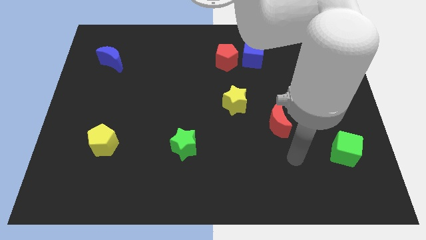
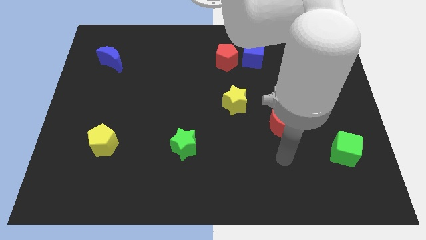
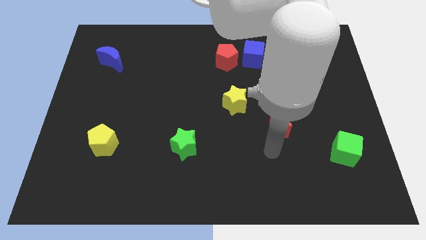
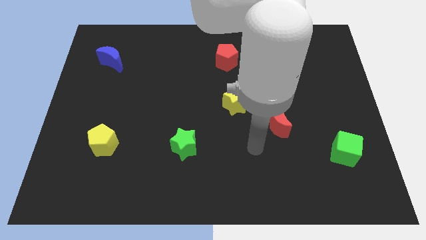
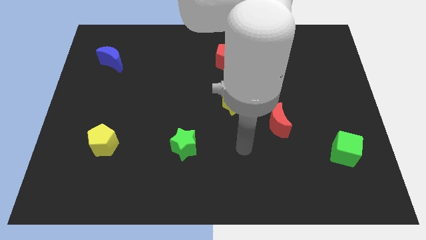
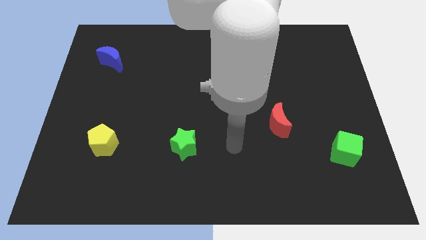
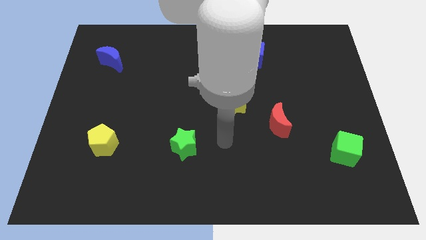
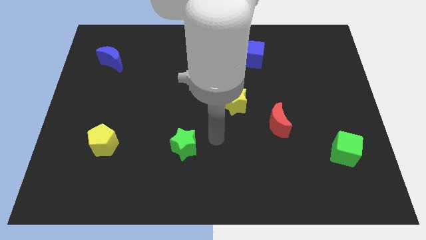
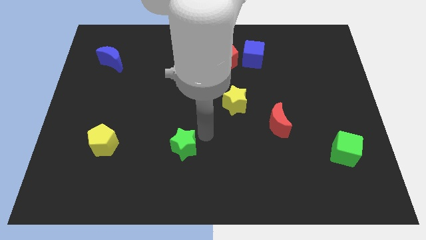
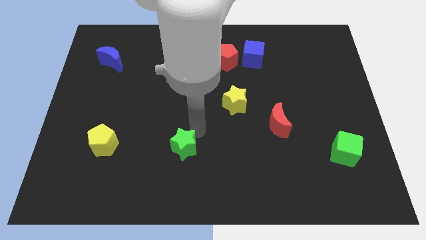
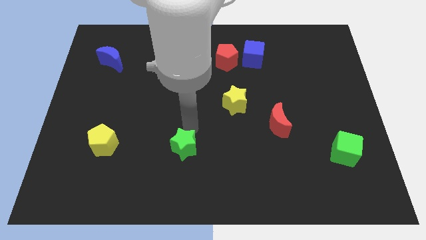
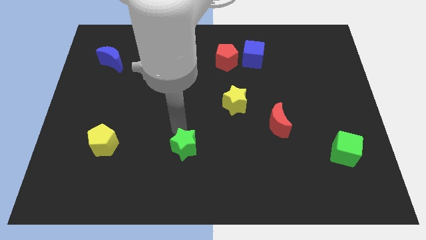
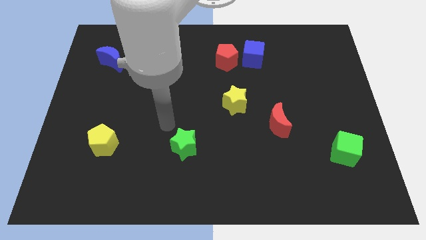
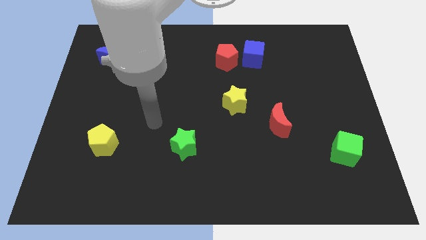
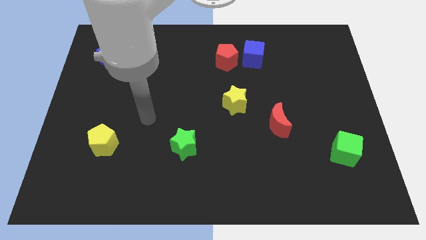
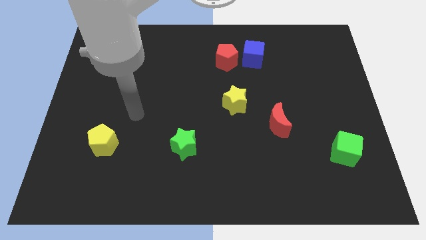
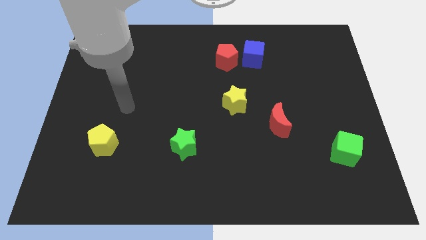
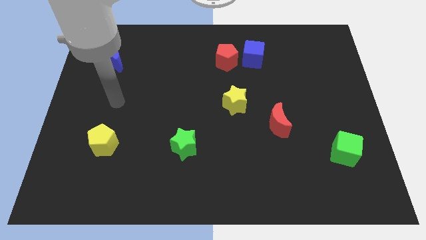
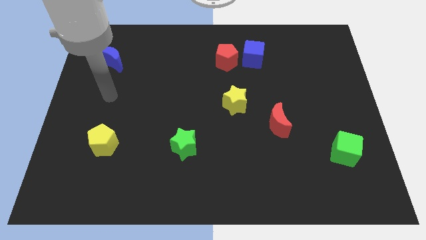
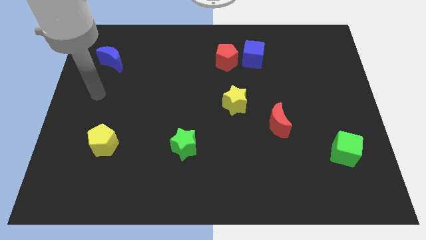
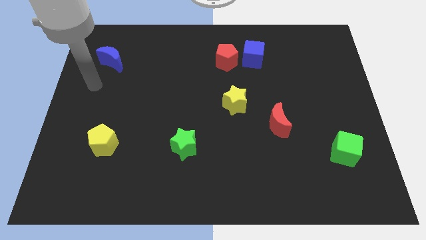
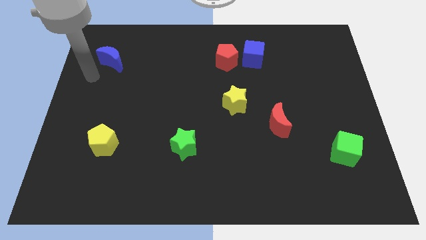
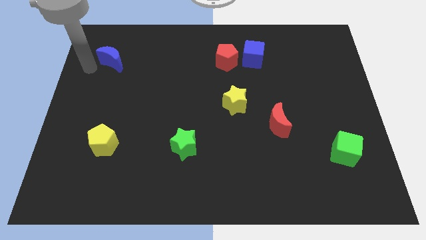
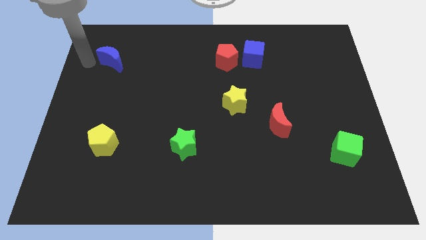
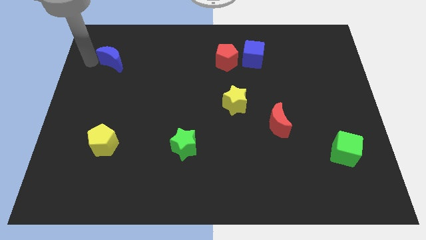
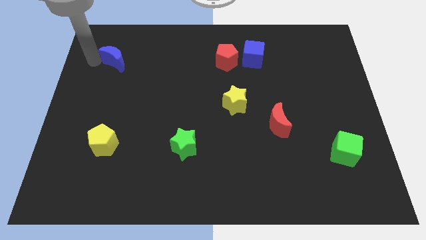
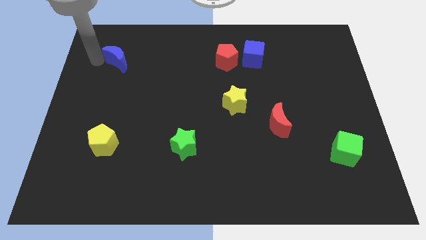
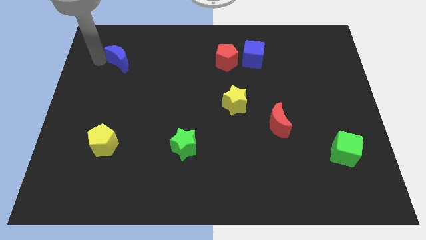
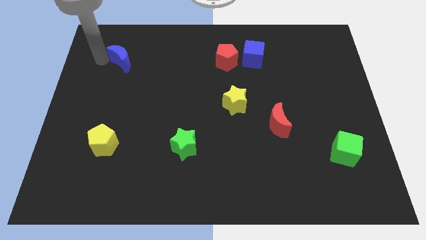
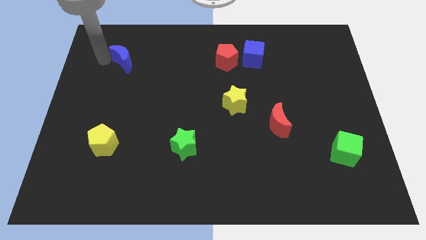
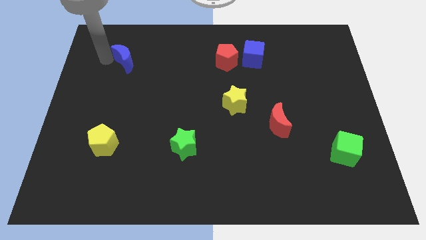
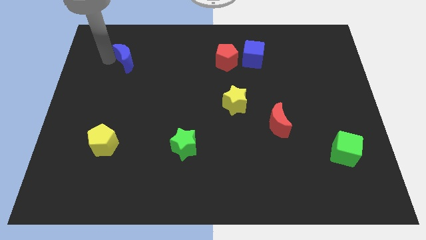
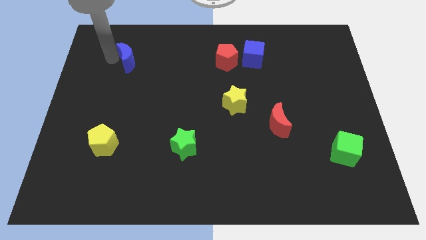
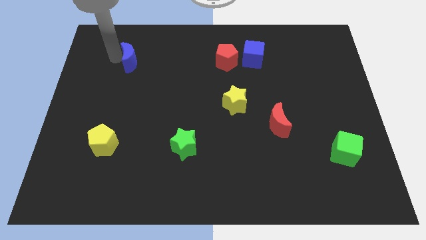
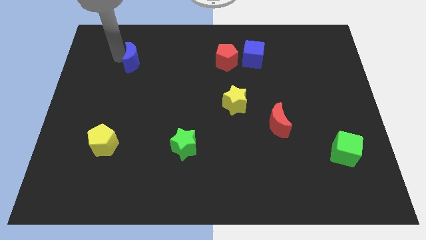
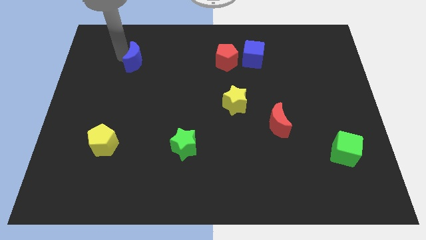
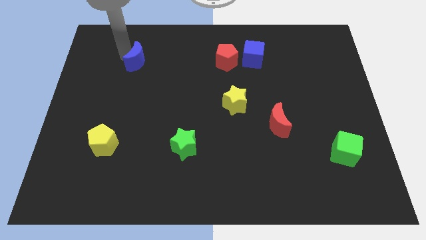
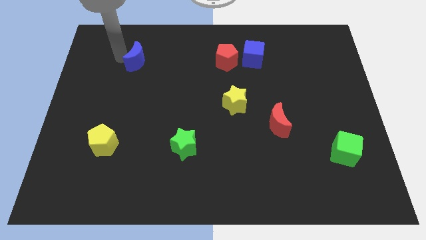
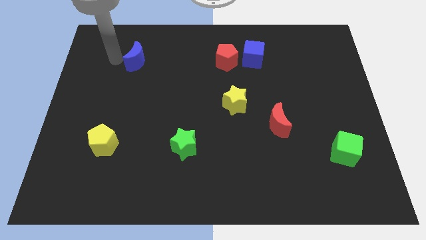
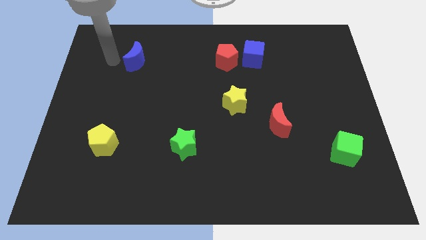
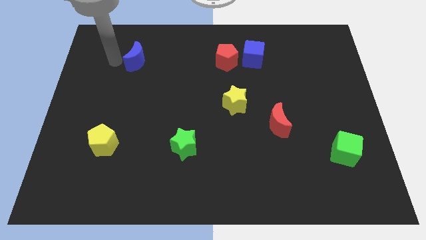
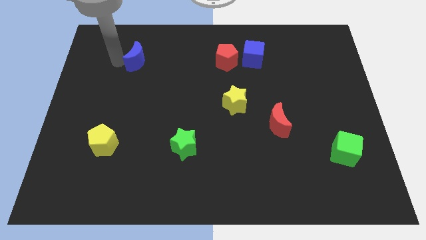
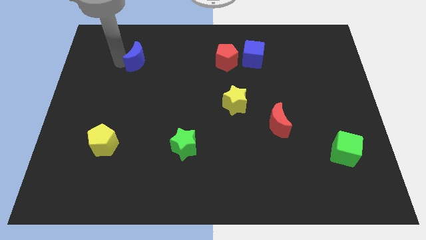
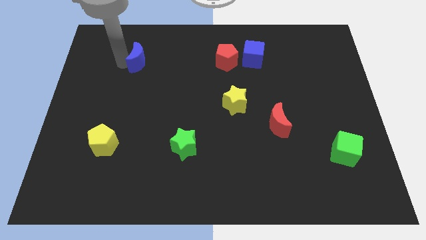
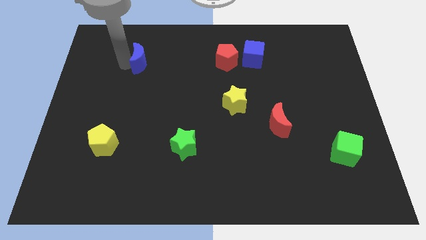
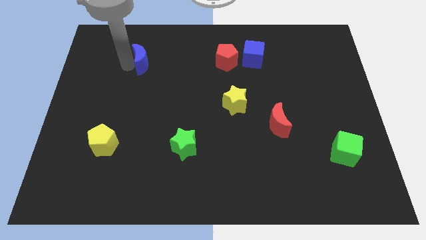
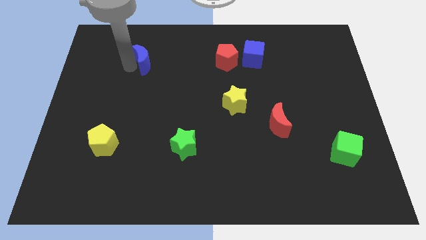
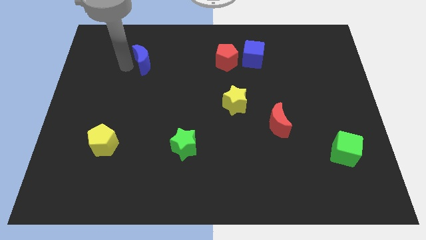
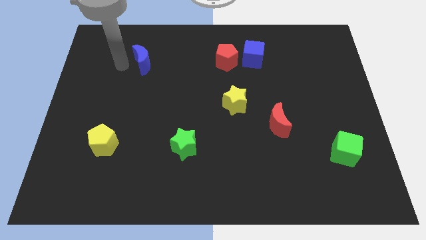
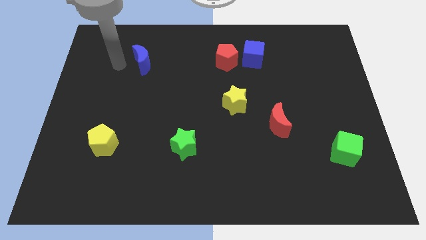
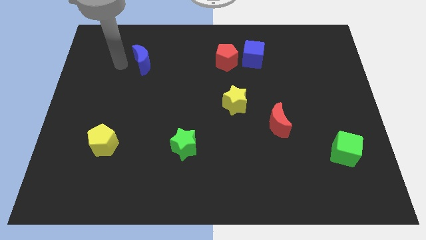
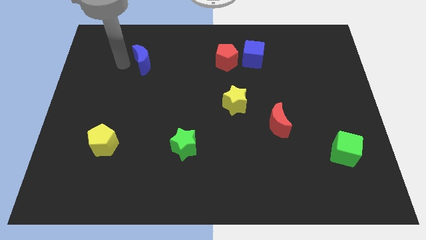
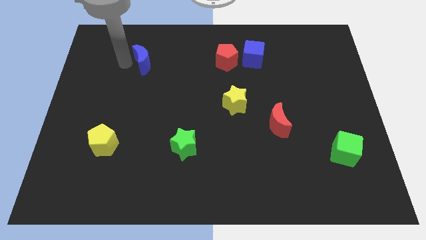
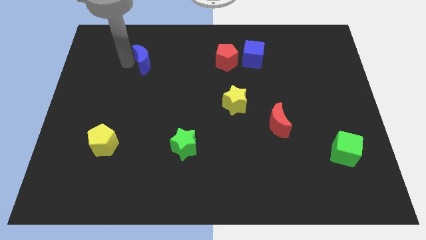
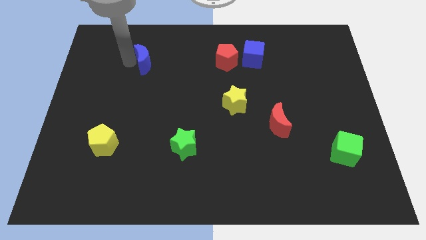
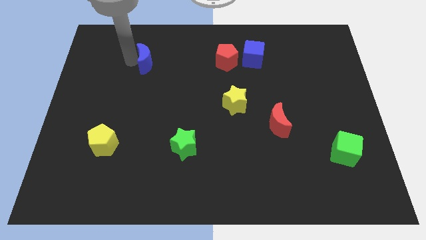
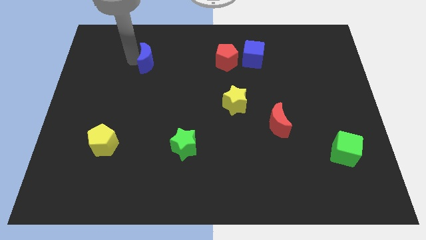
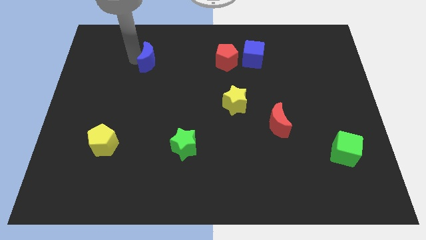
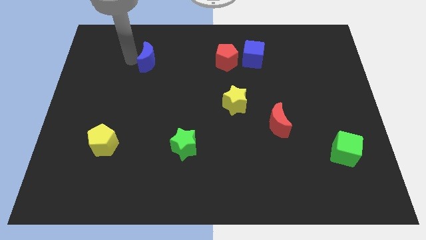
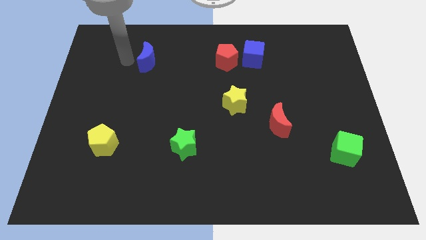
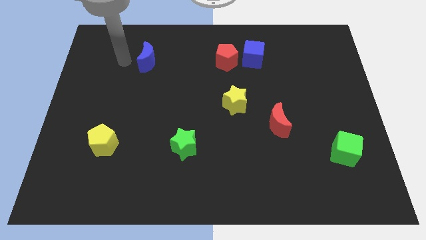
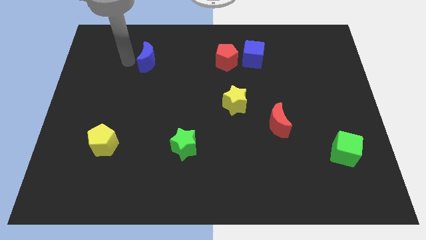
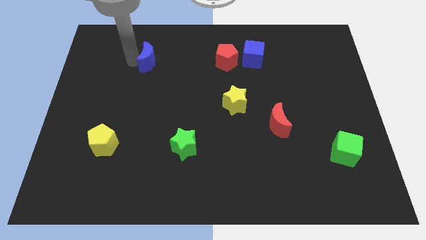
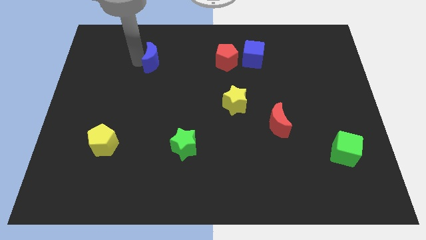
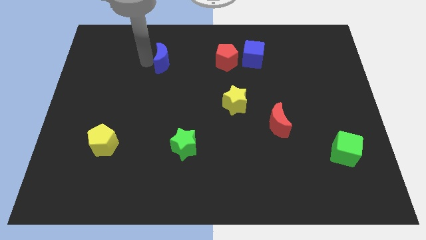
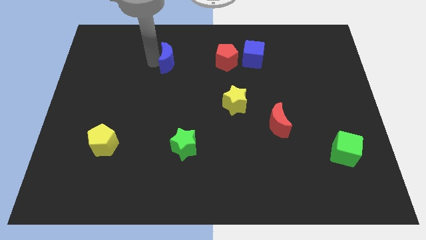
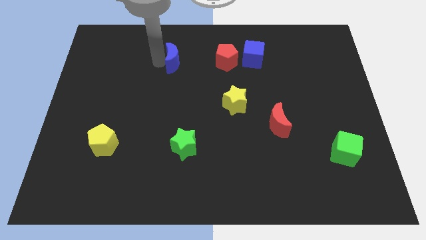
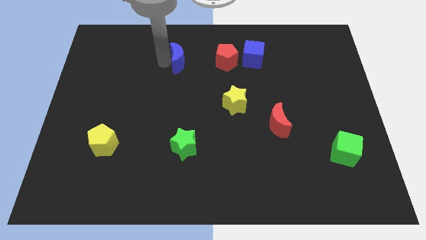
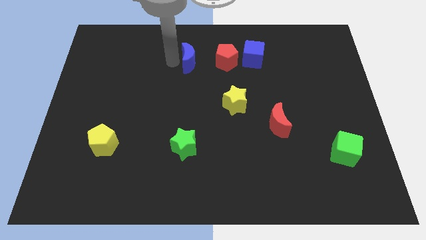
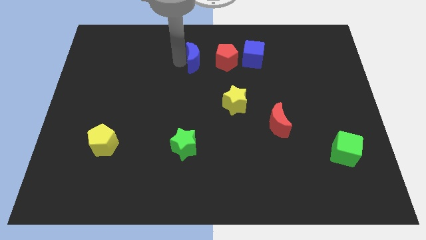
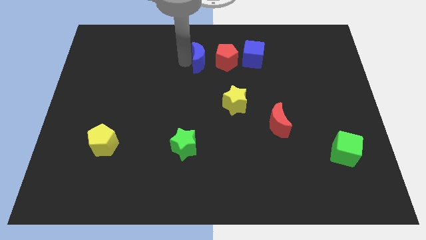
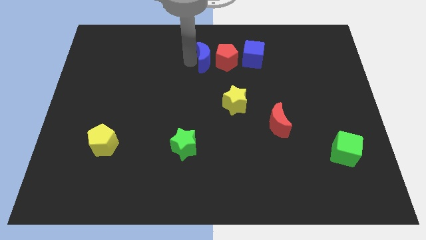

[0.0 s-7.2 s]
slide the blue moon next to the red pentagon
